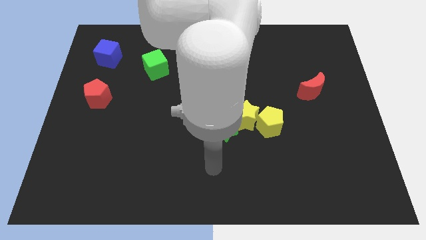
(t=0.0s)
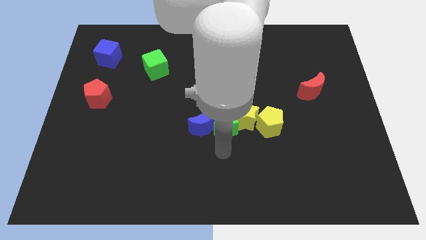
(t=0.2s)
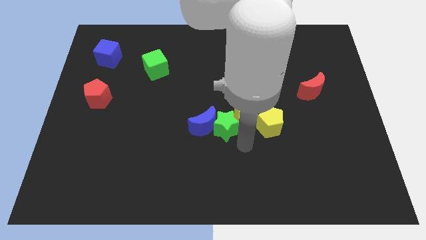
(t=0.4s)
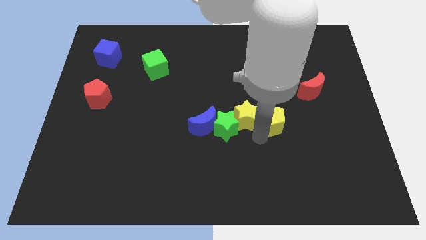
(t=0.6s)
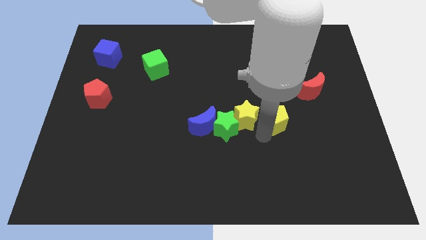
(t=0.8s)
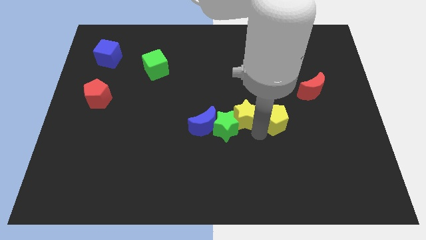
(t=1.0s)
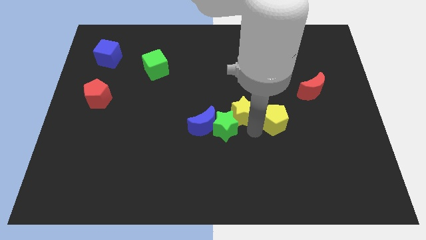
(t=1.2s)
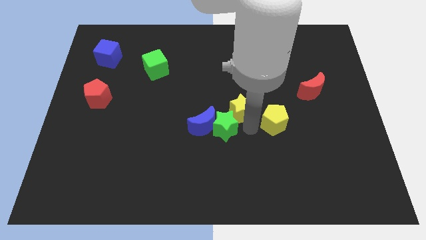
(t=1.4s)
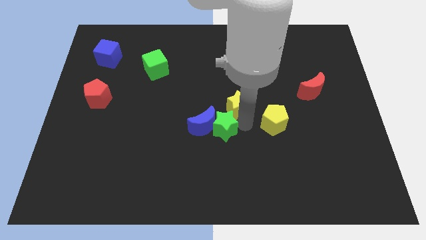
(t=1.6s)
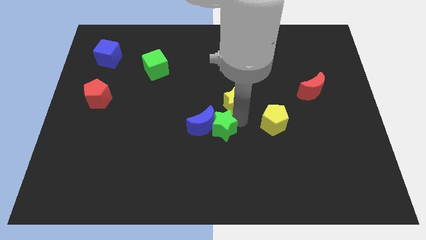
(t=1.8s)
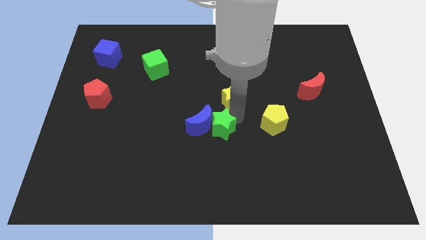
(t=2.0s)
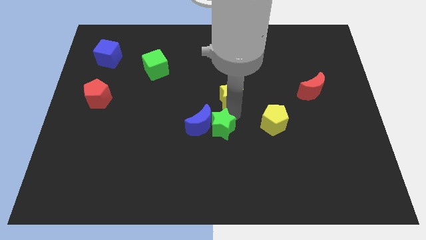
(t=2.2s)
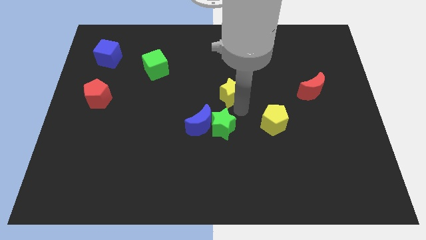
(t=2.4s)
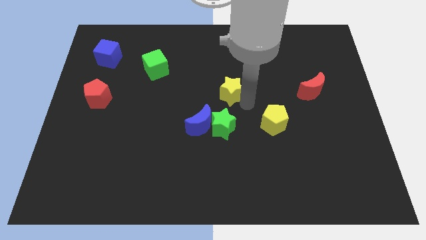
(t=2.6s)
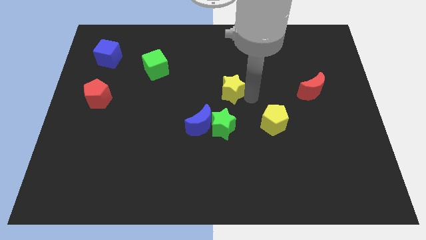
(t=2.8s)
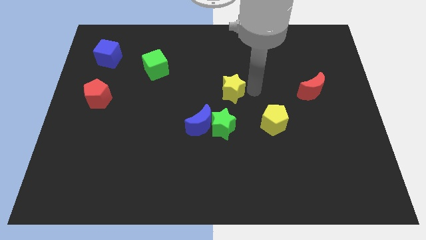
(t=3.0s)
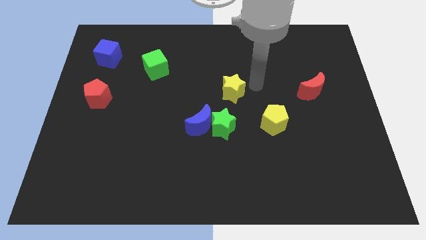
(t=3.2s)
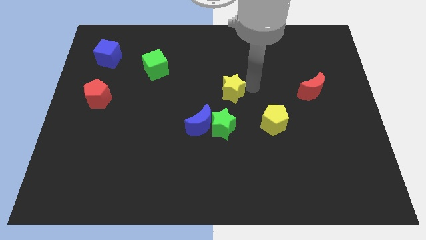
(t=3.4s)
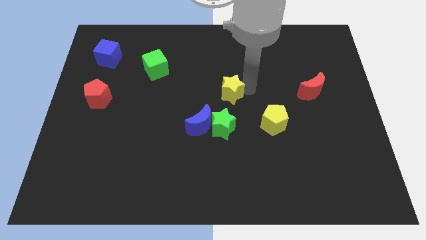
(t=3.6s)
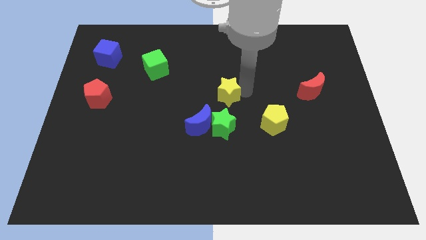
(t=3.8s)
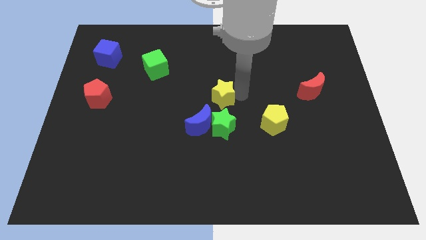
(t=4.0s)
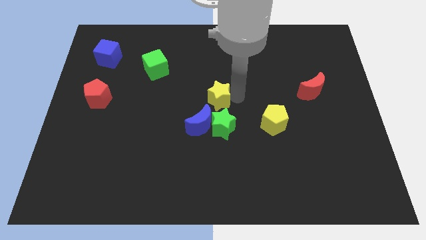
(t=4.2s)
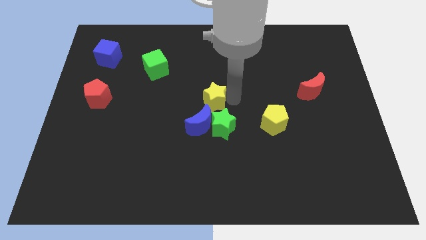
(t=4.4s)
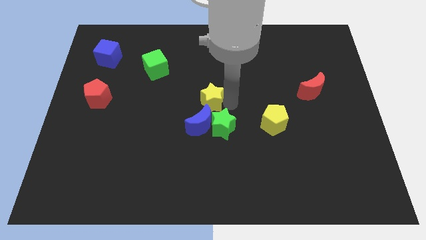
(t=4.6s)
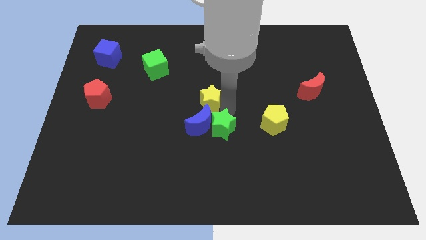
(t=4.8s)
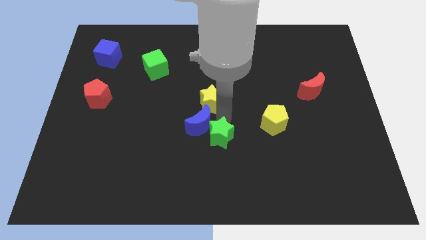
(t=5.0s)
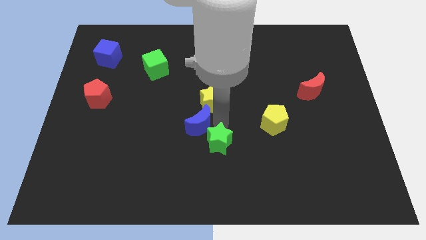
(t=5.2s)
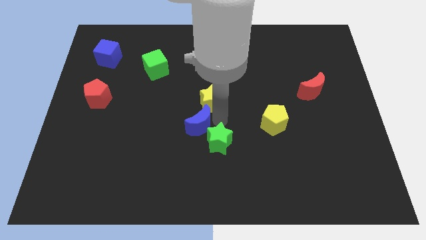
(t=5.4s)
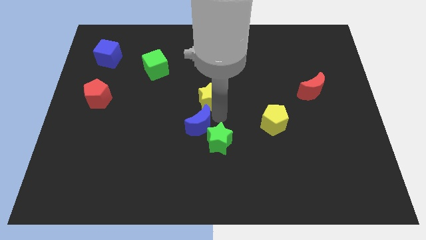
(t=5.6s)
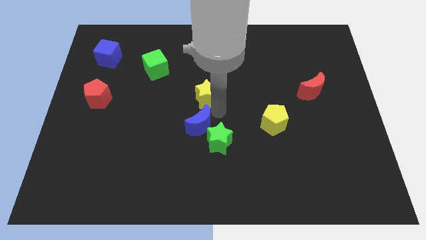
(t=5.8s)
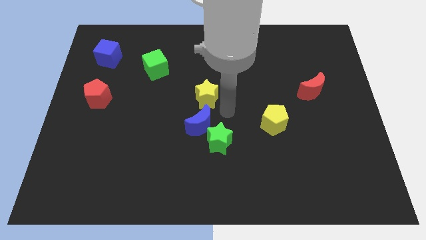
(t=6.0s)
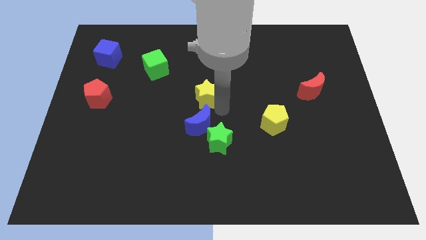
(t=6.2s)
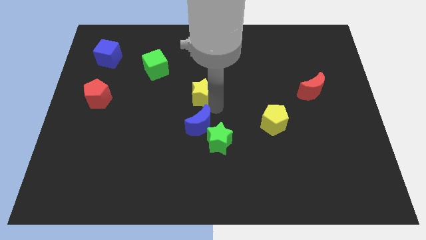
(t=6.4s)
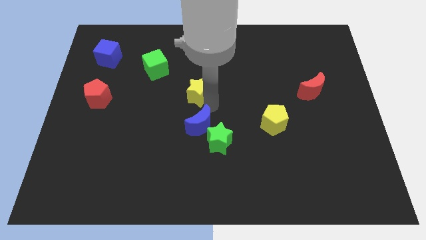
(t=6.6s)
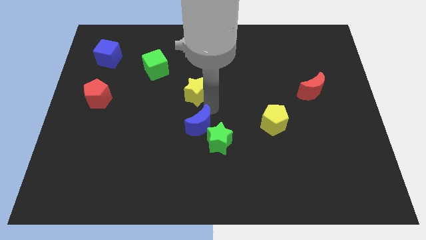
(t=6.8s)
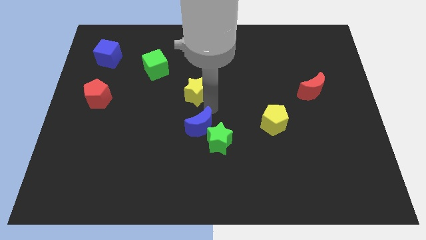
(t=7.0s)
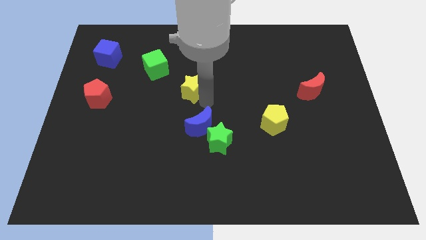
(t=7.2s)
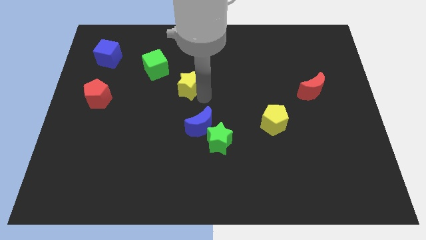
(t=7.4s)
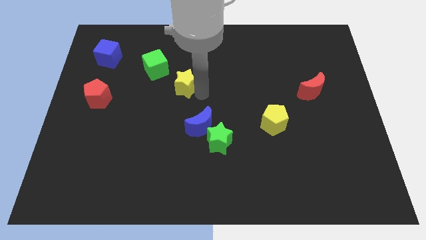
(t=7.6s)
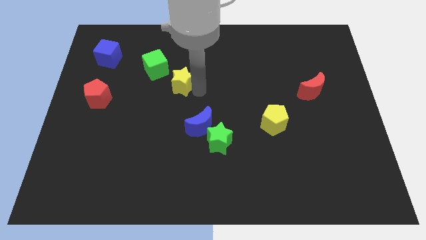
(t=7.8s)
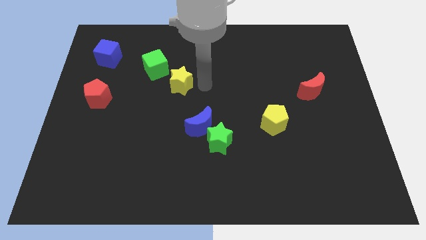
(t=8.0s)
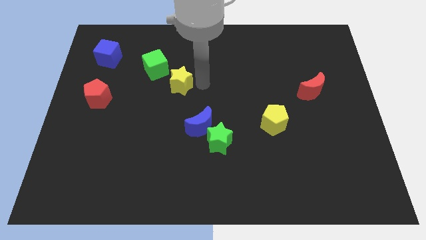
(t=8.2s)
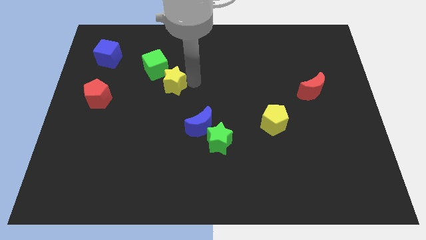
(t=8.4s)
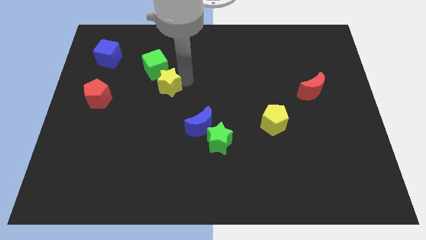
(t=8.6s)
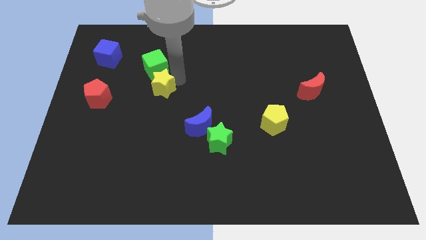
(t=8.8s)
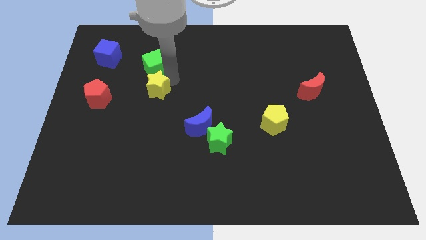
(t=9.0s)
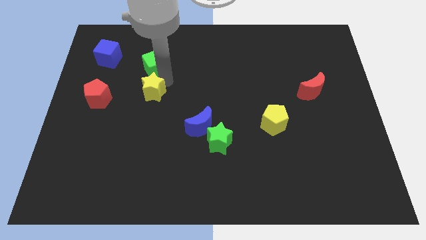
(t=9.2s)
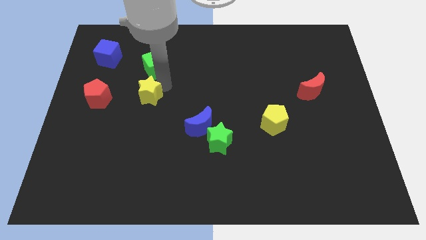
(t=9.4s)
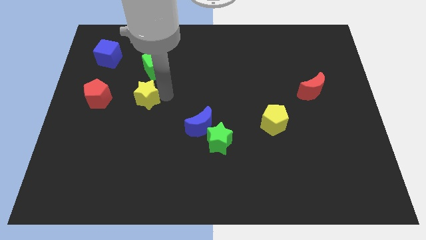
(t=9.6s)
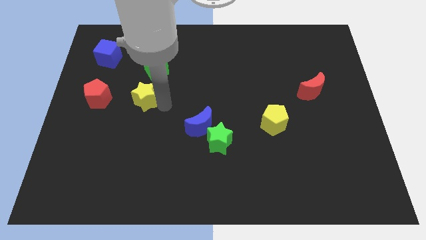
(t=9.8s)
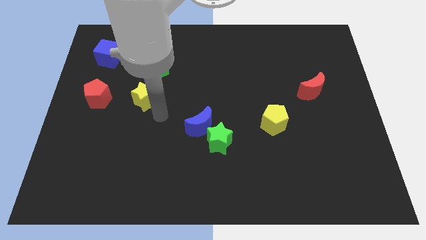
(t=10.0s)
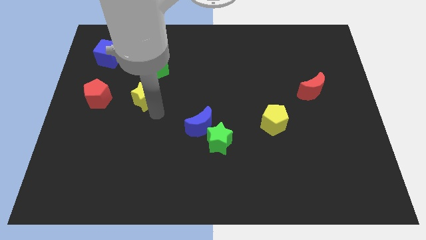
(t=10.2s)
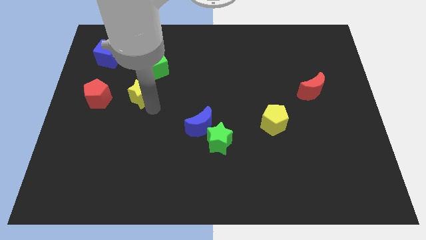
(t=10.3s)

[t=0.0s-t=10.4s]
put the yellow star diagonally down and to the left of the green cube

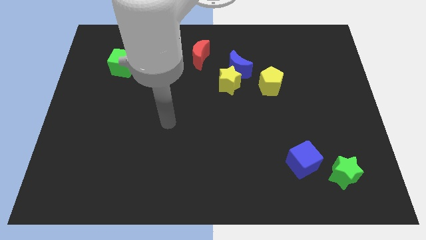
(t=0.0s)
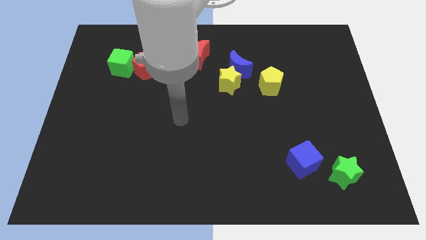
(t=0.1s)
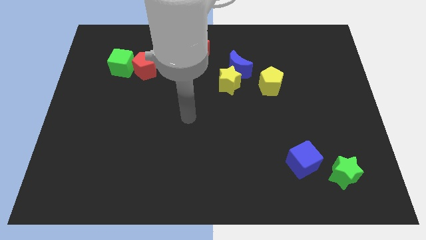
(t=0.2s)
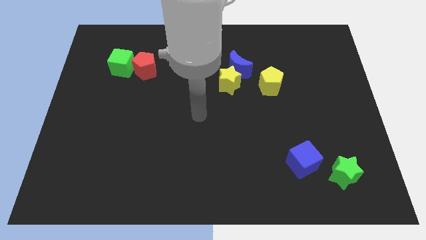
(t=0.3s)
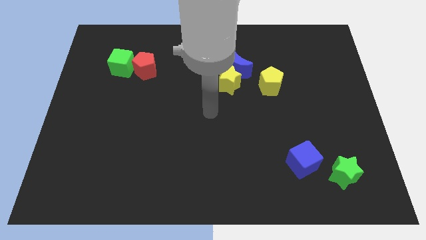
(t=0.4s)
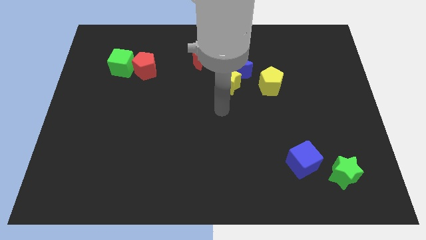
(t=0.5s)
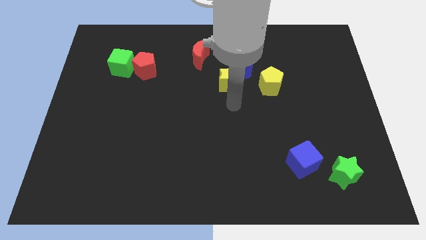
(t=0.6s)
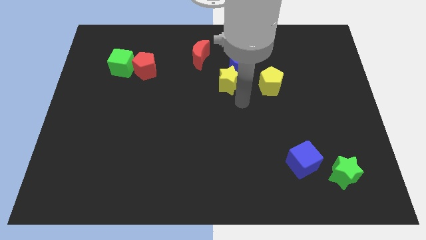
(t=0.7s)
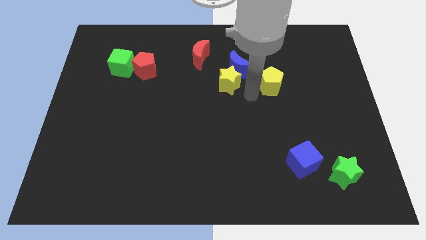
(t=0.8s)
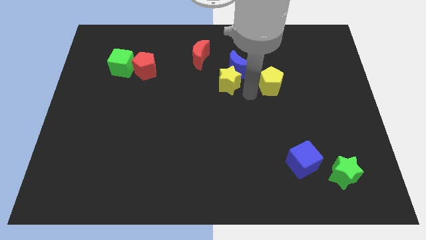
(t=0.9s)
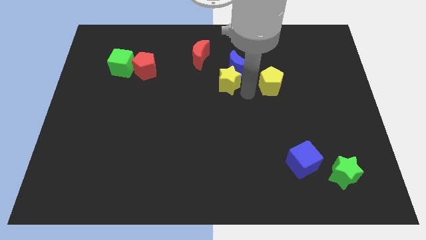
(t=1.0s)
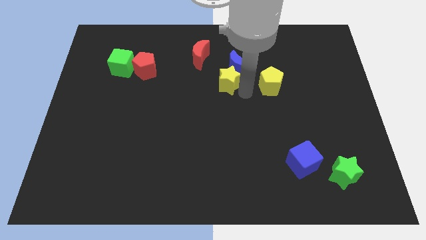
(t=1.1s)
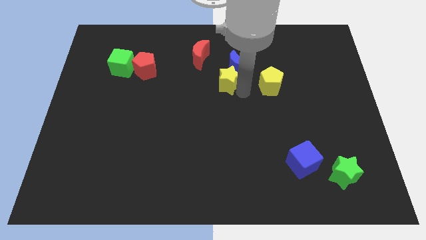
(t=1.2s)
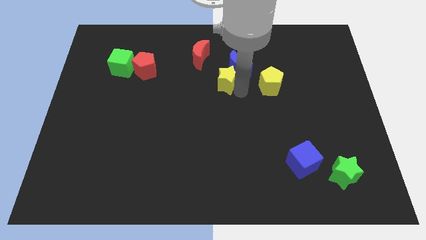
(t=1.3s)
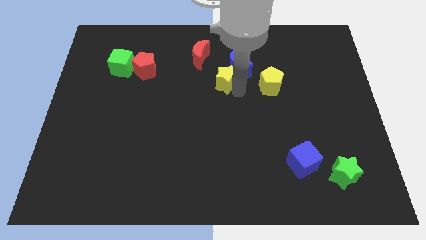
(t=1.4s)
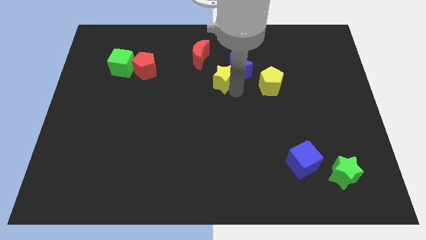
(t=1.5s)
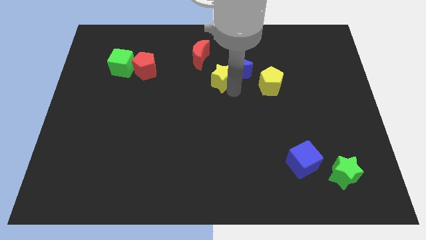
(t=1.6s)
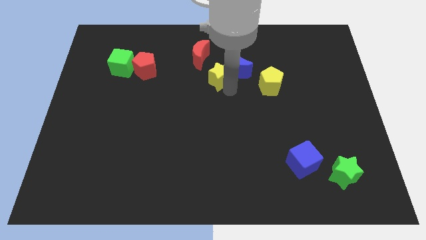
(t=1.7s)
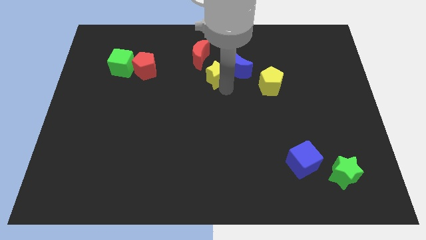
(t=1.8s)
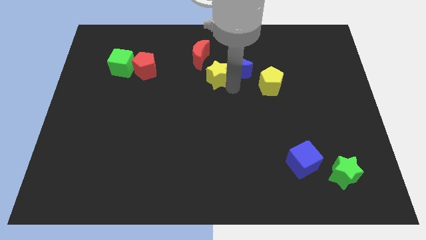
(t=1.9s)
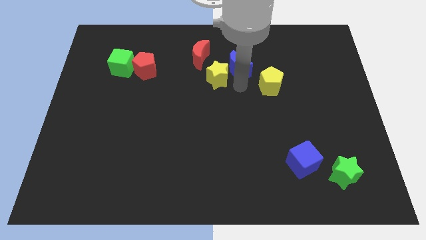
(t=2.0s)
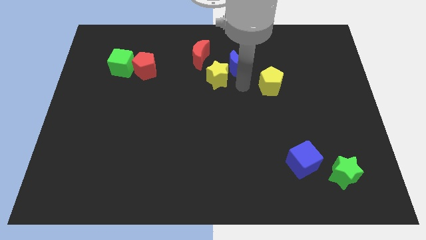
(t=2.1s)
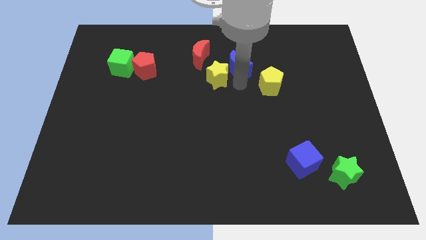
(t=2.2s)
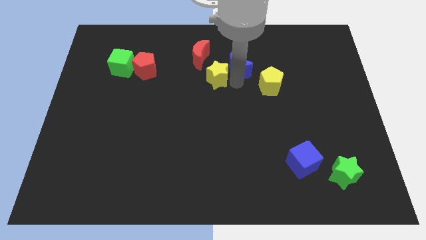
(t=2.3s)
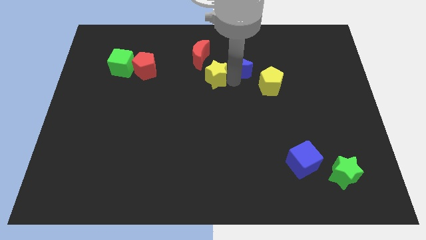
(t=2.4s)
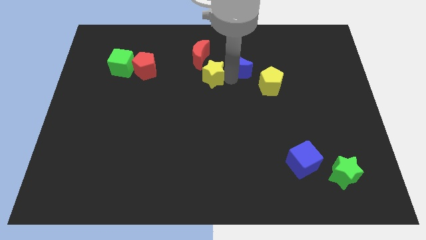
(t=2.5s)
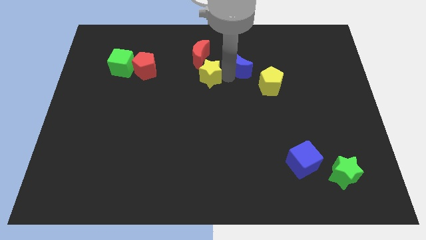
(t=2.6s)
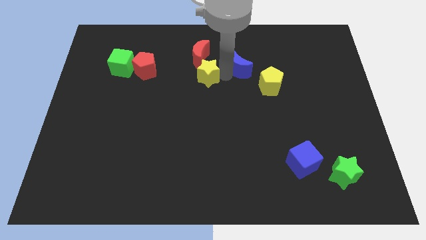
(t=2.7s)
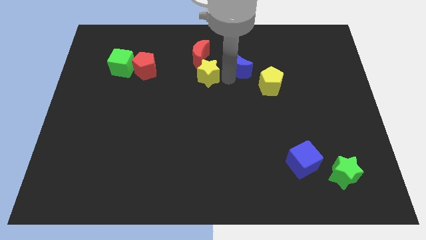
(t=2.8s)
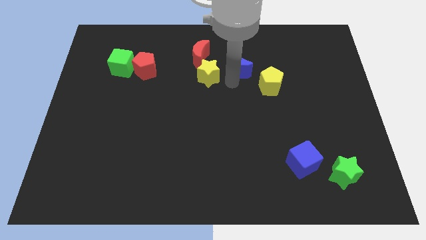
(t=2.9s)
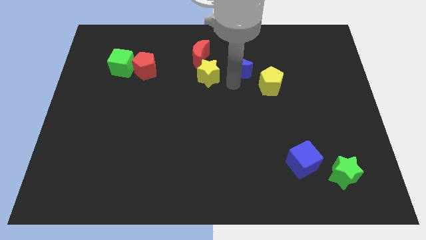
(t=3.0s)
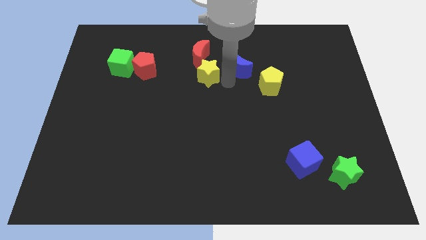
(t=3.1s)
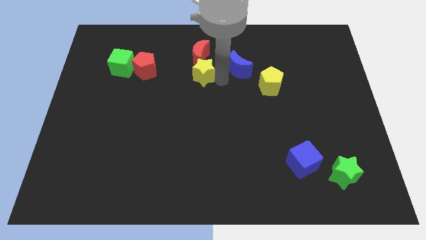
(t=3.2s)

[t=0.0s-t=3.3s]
slide the yellow star to the right of the red pentagon
